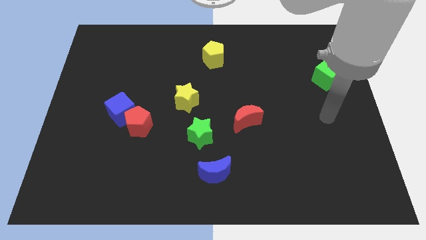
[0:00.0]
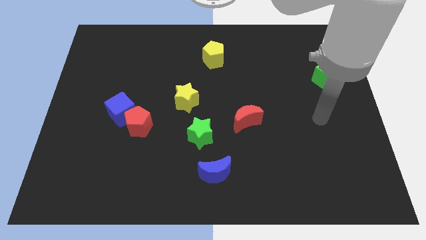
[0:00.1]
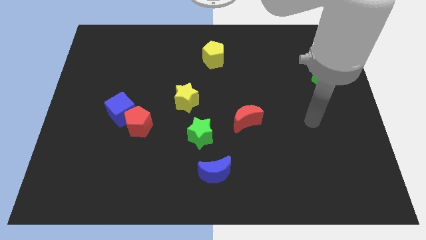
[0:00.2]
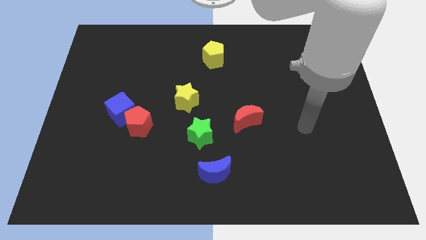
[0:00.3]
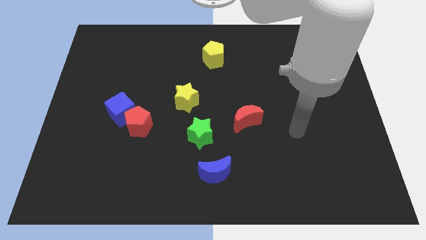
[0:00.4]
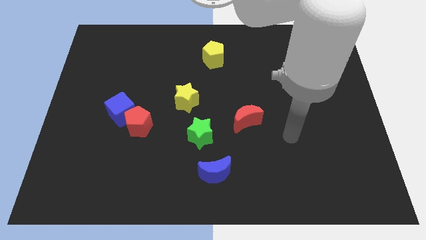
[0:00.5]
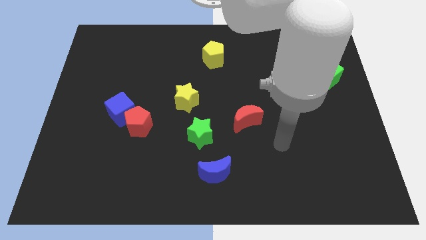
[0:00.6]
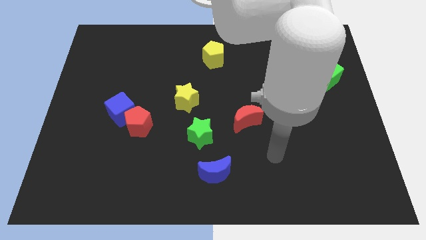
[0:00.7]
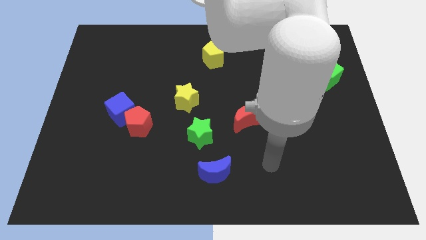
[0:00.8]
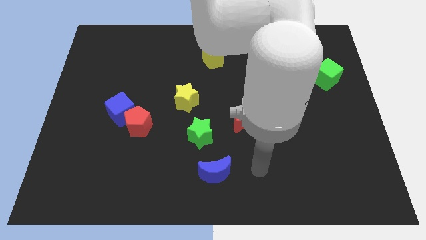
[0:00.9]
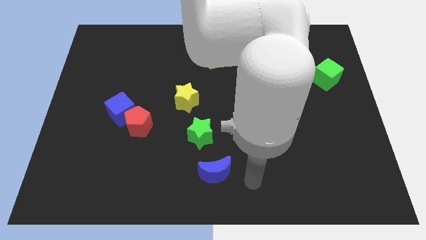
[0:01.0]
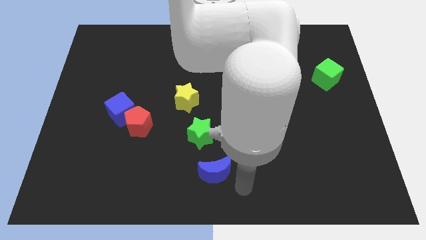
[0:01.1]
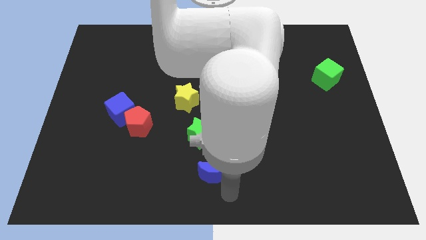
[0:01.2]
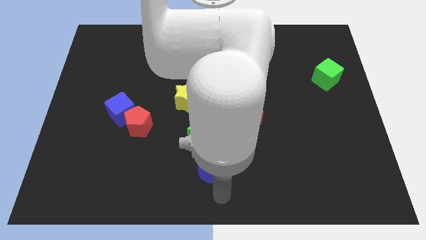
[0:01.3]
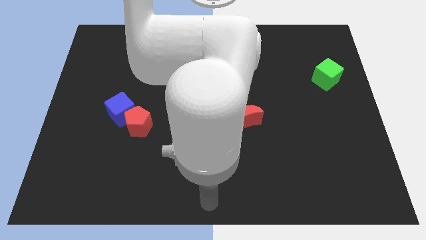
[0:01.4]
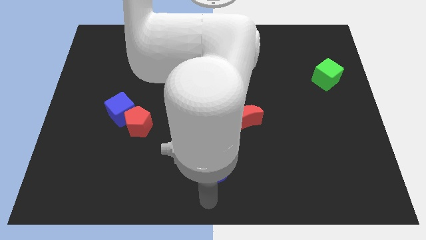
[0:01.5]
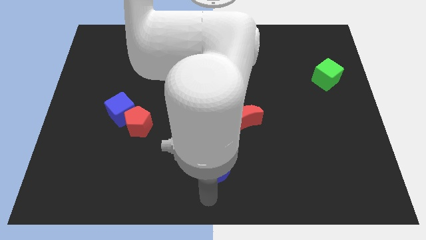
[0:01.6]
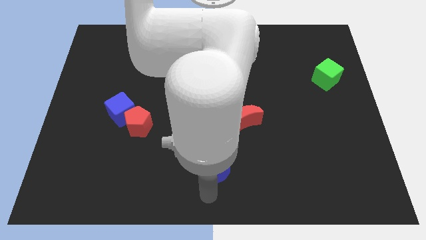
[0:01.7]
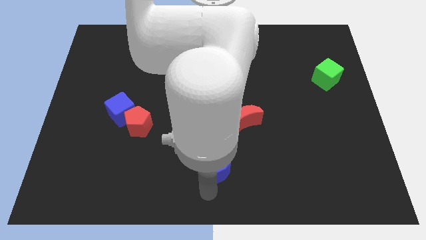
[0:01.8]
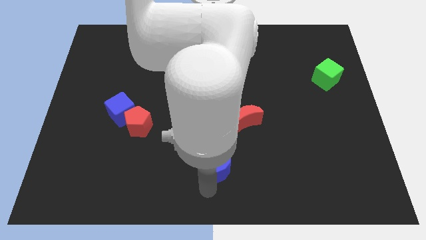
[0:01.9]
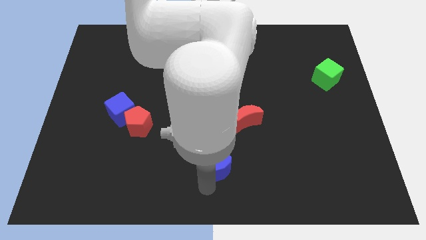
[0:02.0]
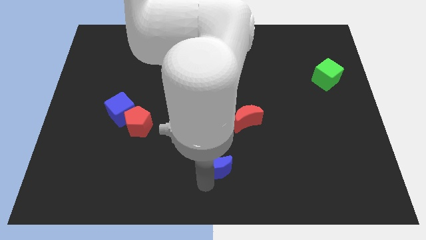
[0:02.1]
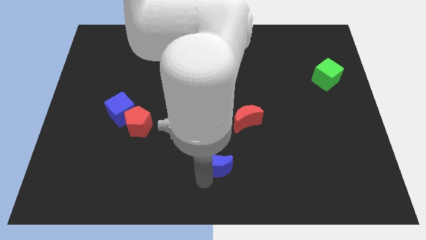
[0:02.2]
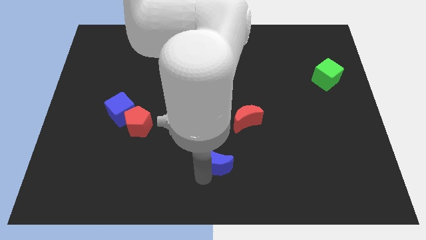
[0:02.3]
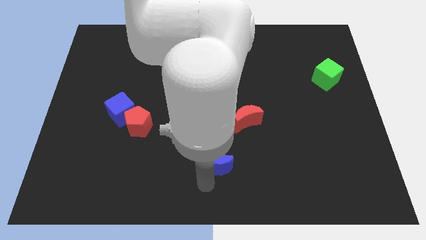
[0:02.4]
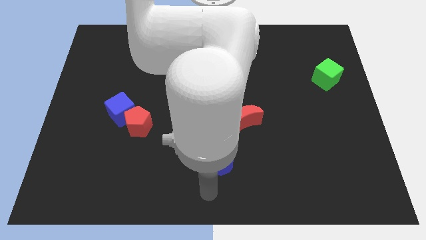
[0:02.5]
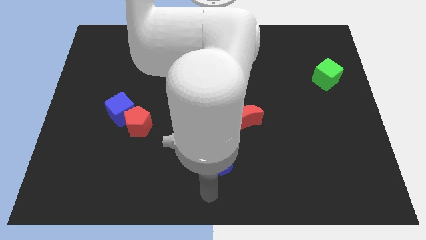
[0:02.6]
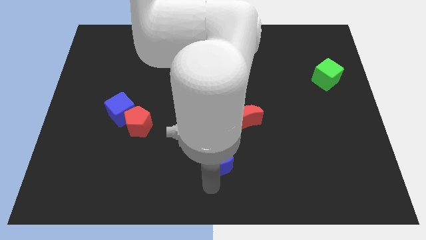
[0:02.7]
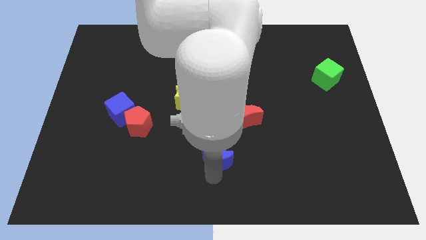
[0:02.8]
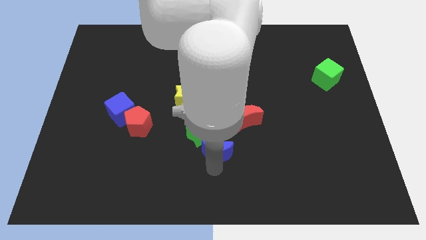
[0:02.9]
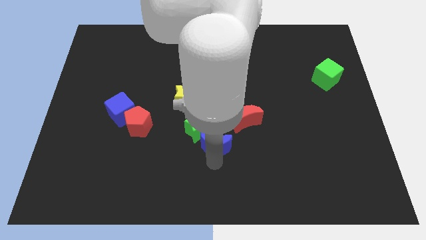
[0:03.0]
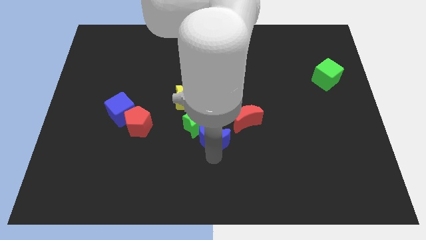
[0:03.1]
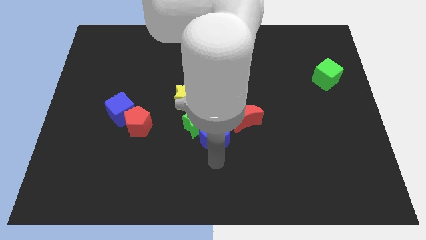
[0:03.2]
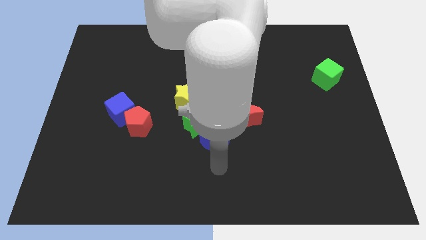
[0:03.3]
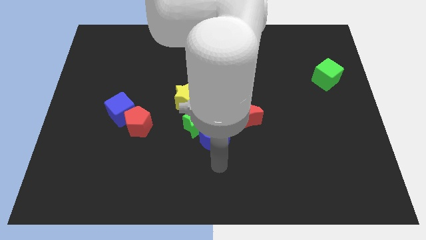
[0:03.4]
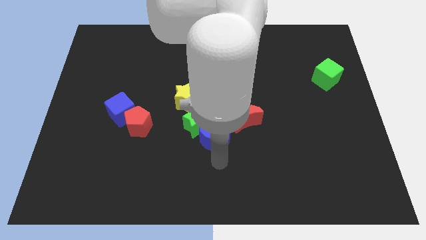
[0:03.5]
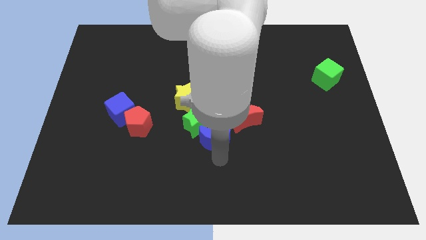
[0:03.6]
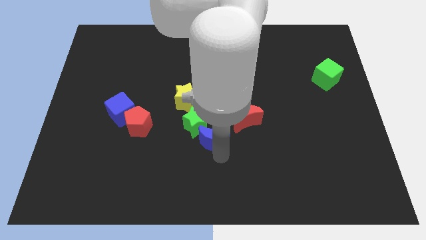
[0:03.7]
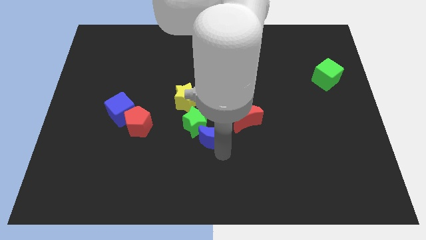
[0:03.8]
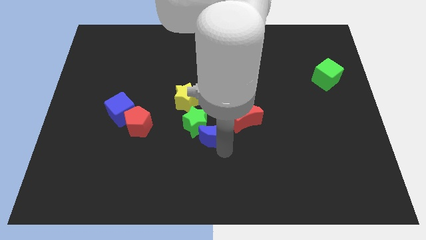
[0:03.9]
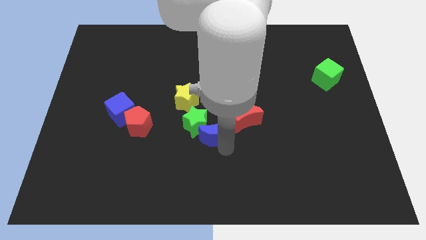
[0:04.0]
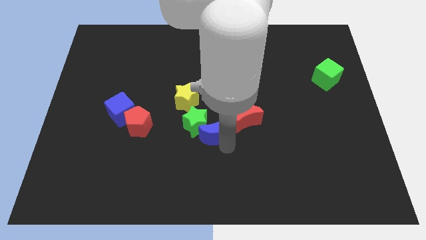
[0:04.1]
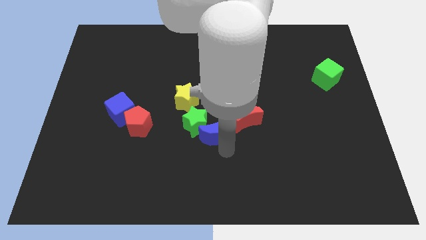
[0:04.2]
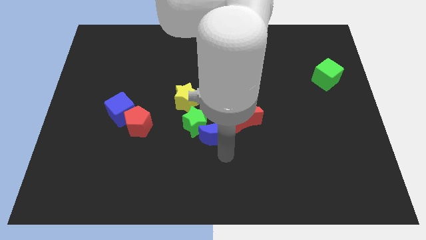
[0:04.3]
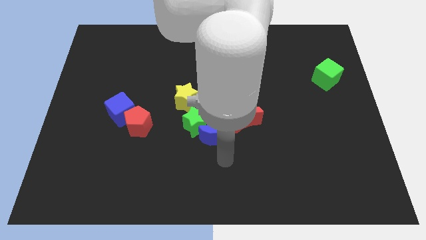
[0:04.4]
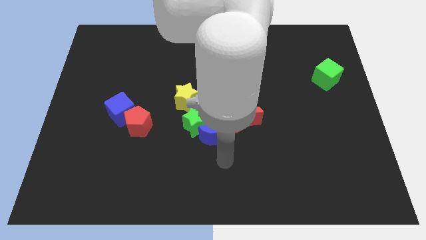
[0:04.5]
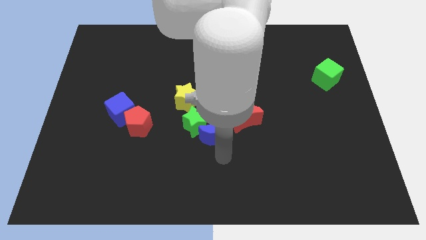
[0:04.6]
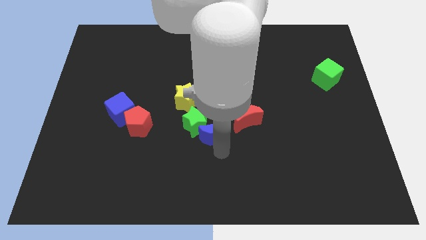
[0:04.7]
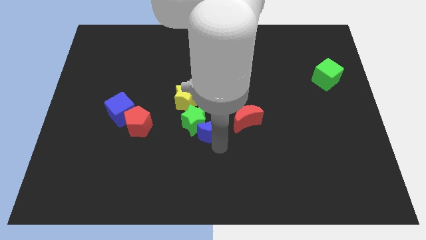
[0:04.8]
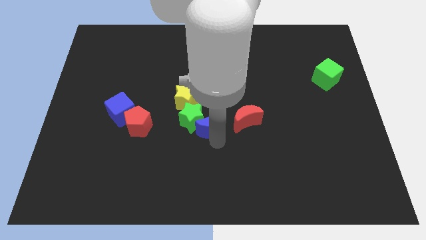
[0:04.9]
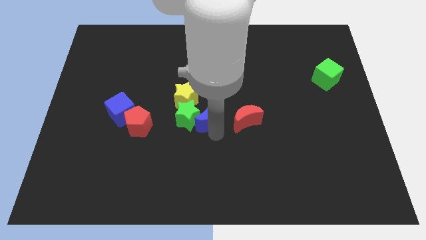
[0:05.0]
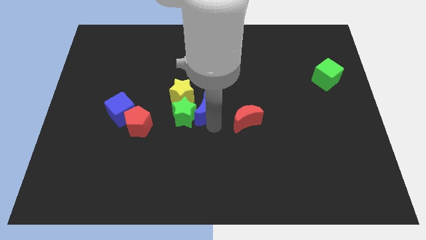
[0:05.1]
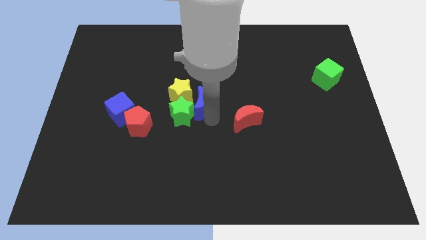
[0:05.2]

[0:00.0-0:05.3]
push the blue moon to the yellow star

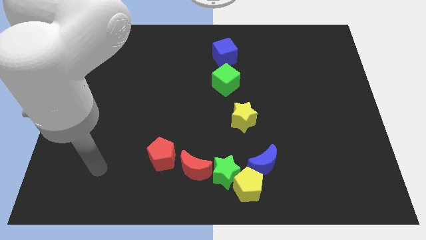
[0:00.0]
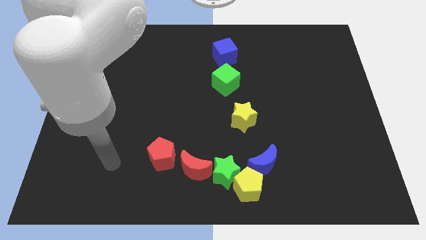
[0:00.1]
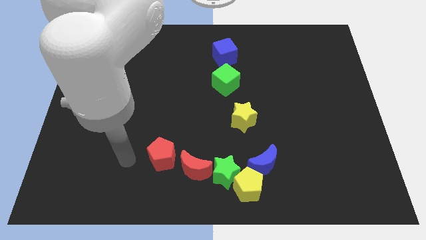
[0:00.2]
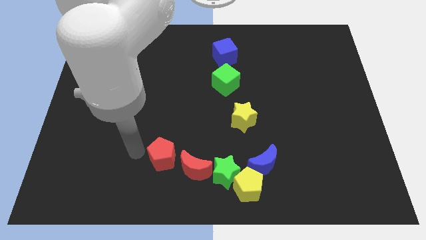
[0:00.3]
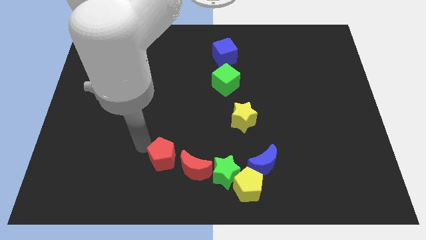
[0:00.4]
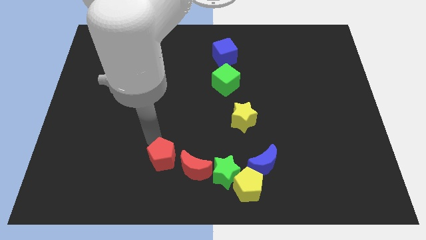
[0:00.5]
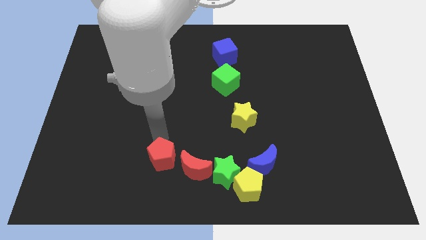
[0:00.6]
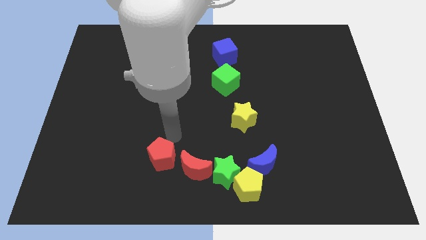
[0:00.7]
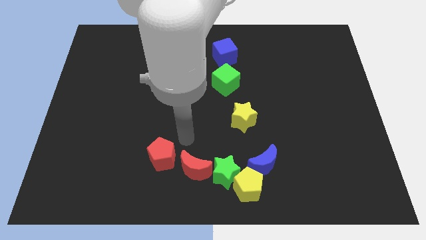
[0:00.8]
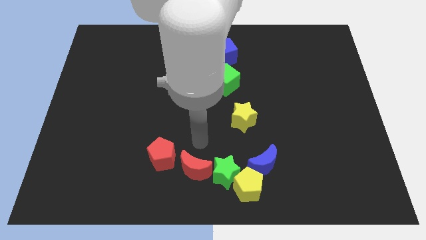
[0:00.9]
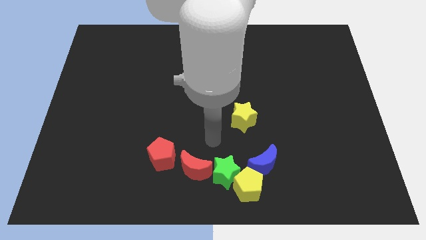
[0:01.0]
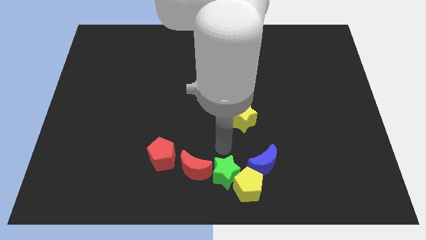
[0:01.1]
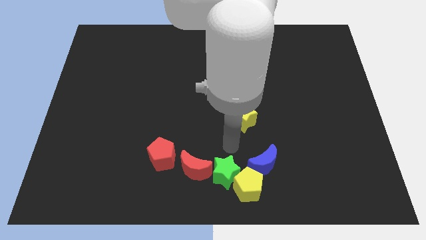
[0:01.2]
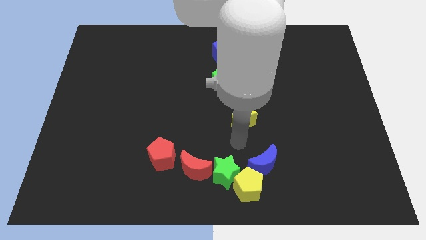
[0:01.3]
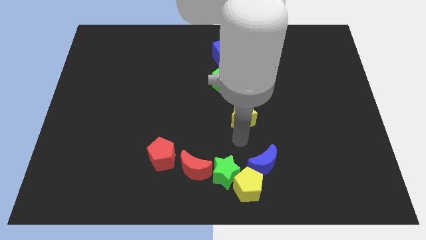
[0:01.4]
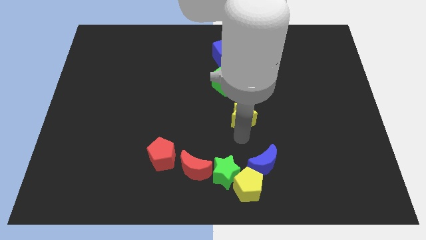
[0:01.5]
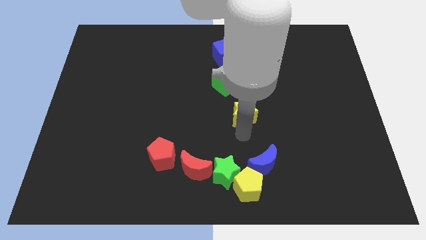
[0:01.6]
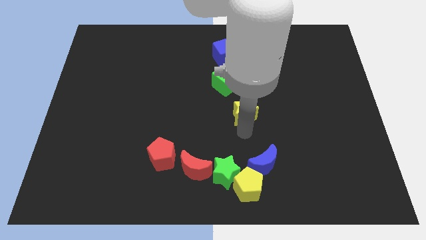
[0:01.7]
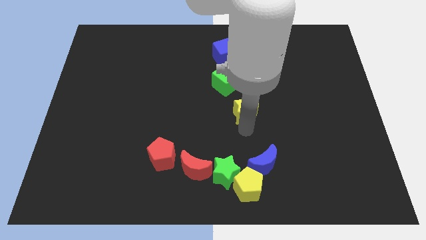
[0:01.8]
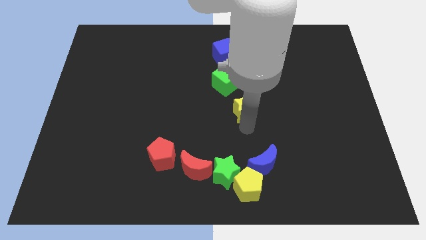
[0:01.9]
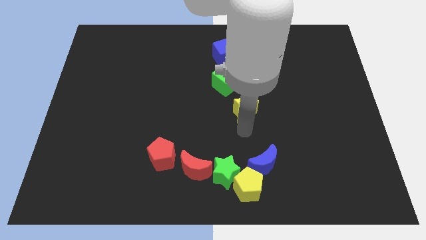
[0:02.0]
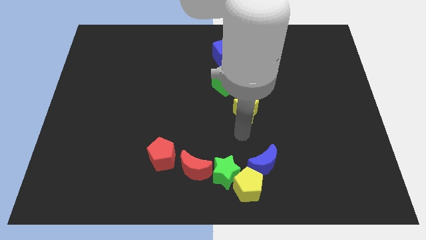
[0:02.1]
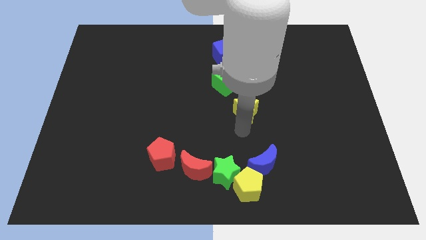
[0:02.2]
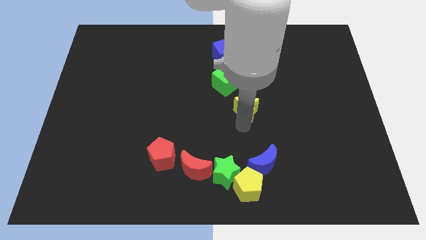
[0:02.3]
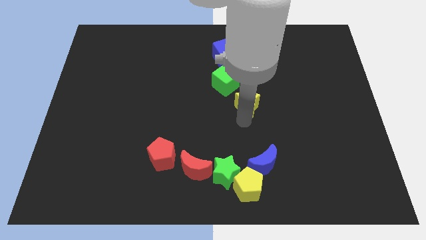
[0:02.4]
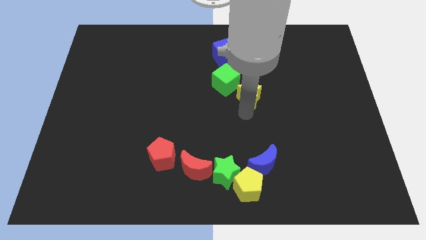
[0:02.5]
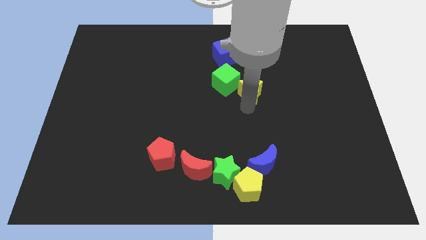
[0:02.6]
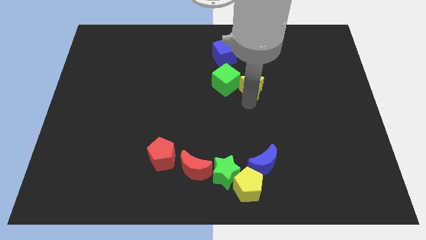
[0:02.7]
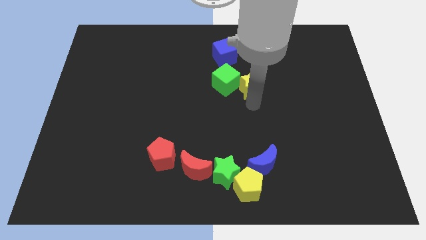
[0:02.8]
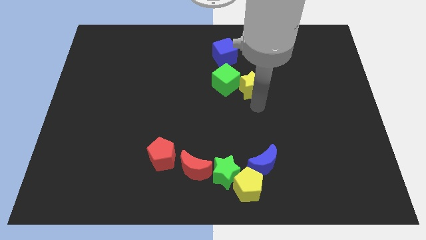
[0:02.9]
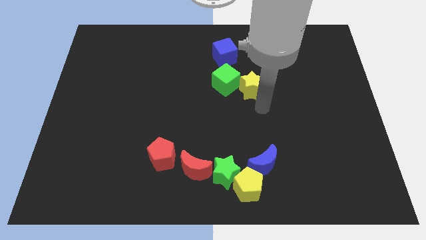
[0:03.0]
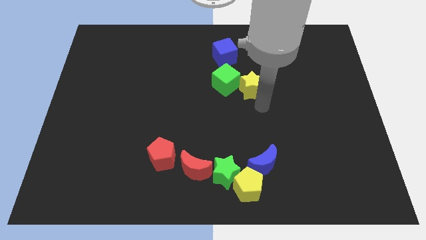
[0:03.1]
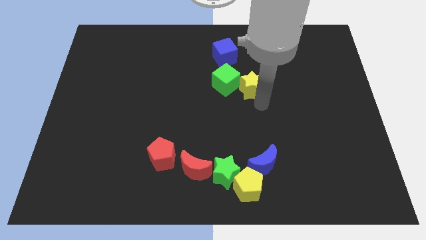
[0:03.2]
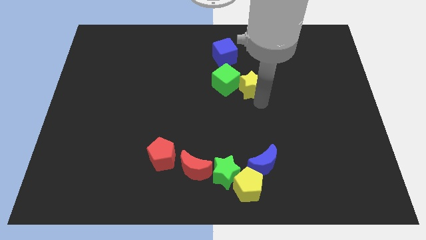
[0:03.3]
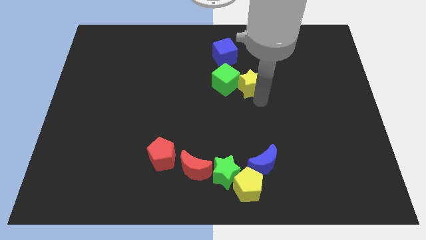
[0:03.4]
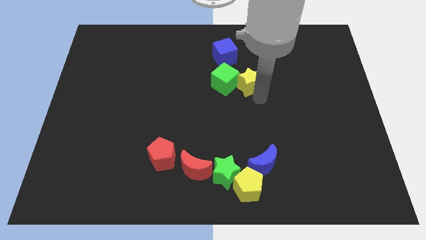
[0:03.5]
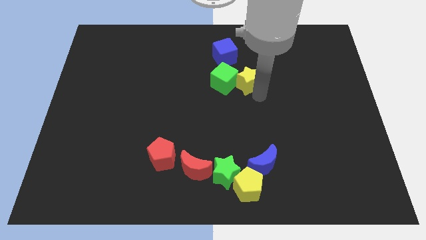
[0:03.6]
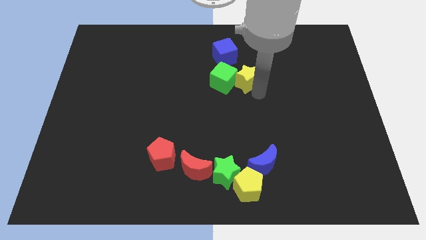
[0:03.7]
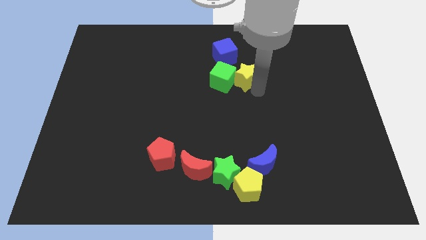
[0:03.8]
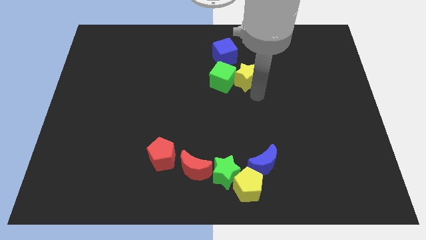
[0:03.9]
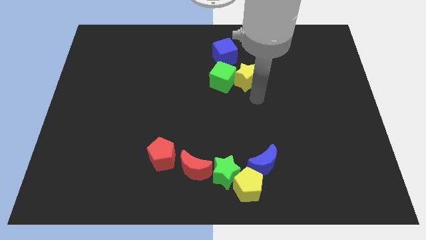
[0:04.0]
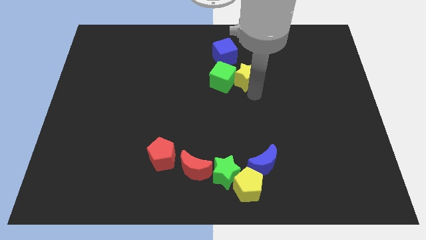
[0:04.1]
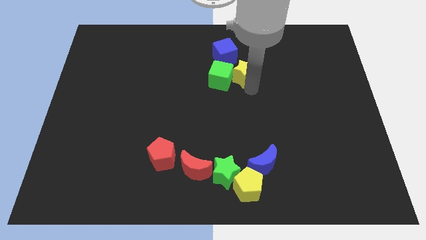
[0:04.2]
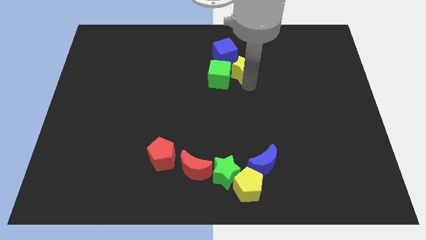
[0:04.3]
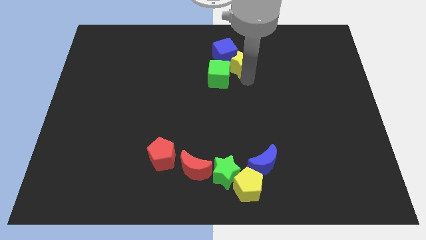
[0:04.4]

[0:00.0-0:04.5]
move the yellow star towards the blue cube
